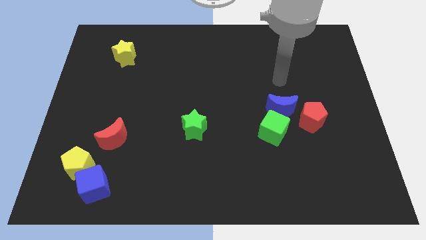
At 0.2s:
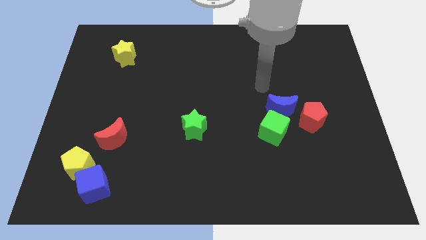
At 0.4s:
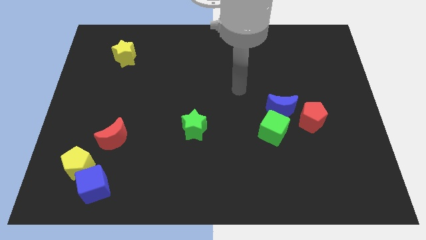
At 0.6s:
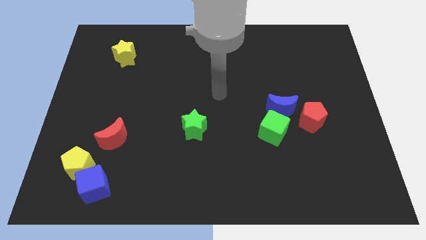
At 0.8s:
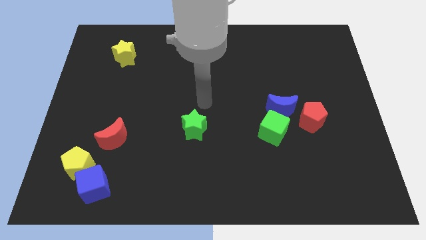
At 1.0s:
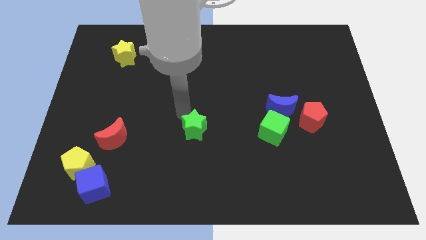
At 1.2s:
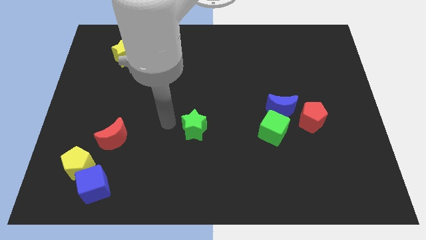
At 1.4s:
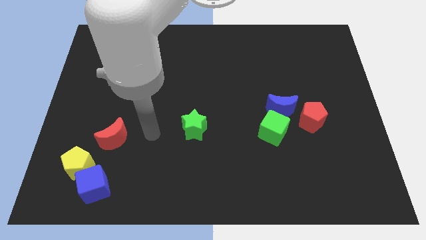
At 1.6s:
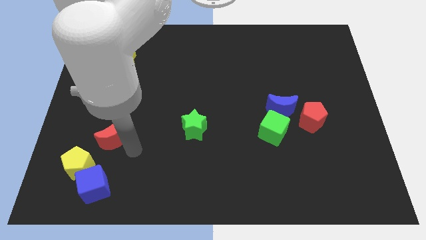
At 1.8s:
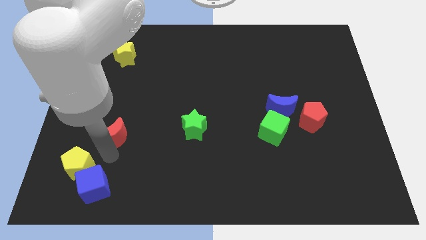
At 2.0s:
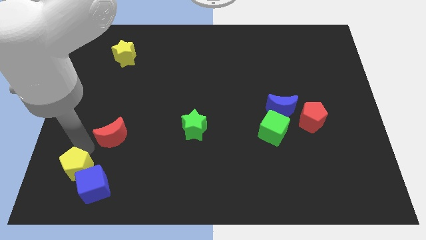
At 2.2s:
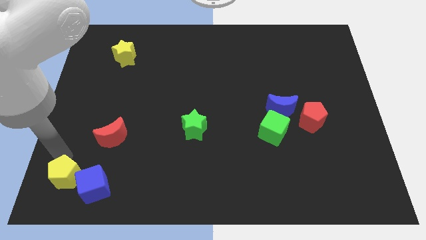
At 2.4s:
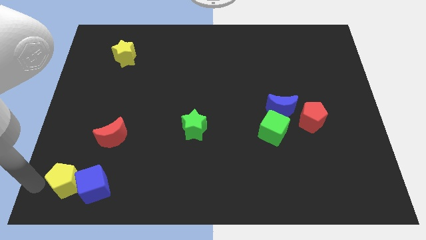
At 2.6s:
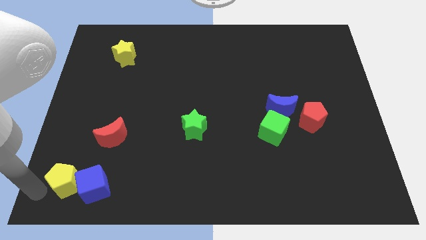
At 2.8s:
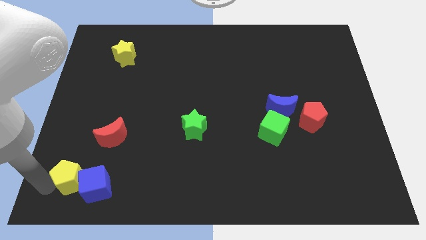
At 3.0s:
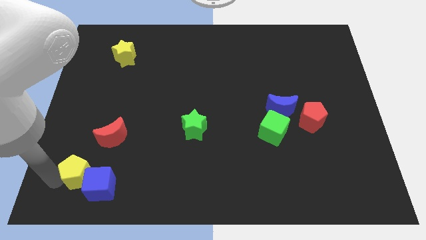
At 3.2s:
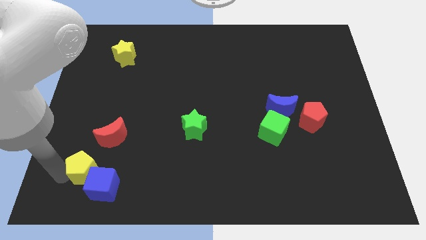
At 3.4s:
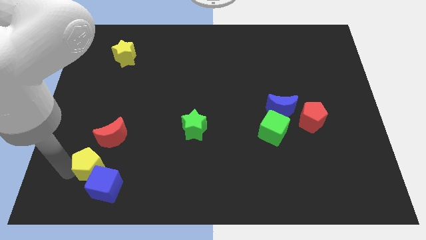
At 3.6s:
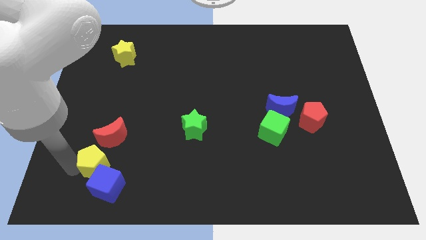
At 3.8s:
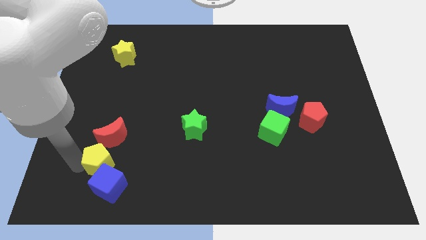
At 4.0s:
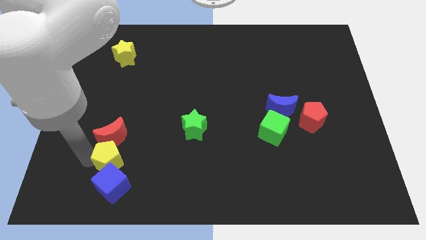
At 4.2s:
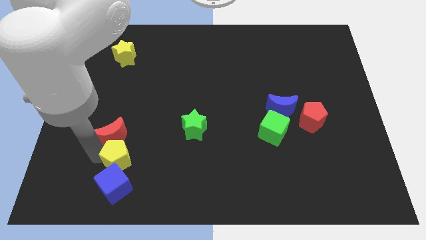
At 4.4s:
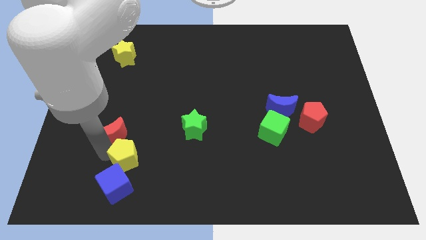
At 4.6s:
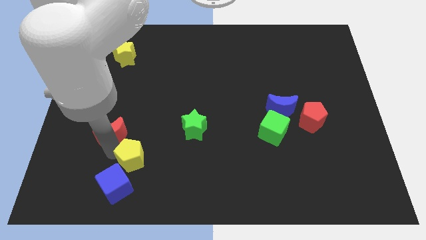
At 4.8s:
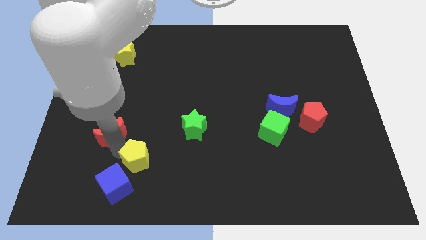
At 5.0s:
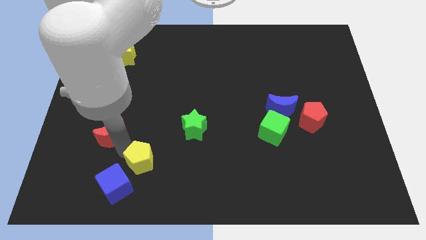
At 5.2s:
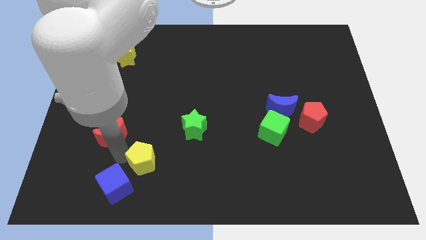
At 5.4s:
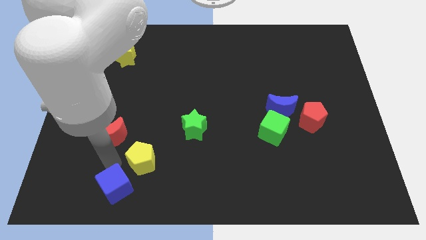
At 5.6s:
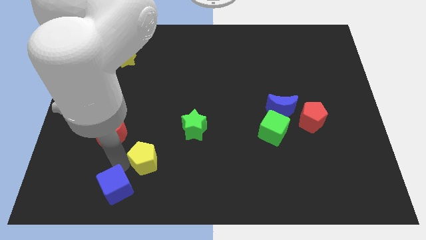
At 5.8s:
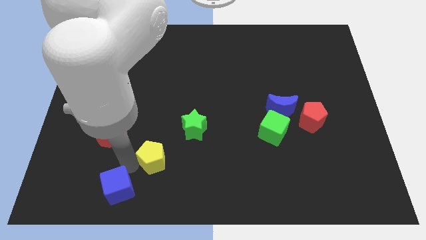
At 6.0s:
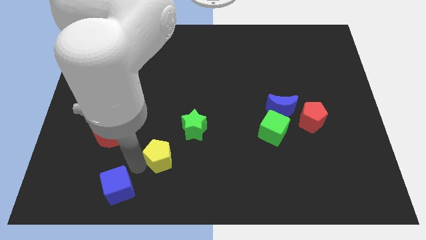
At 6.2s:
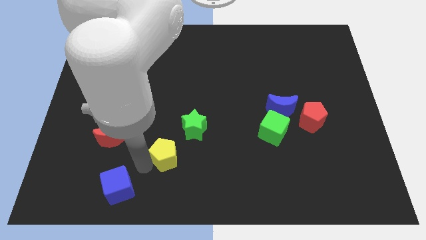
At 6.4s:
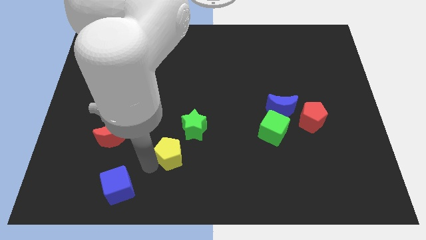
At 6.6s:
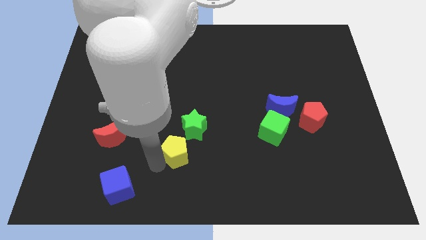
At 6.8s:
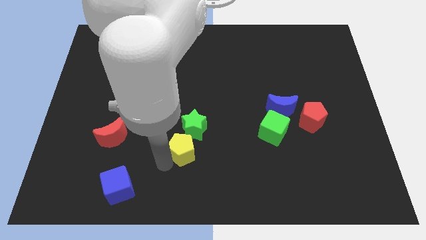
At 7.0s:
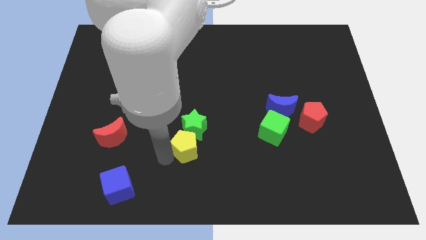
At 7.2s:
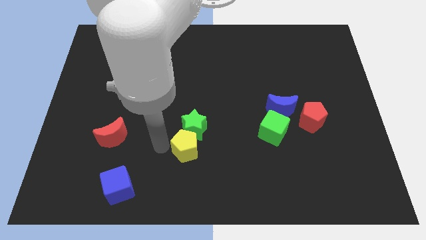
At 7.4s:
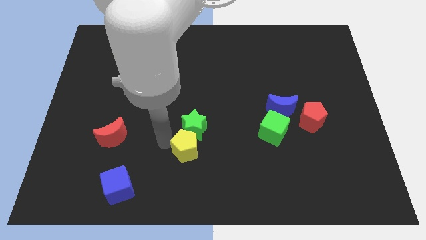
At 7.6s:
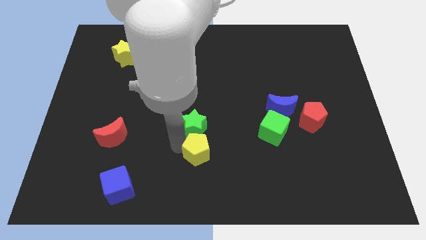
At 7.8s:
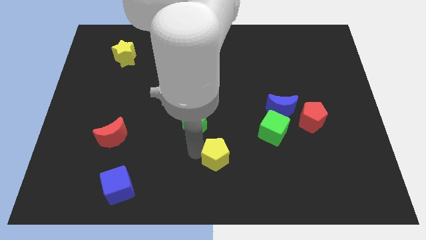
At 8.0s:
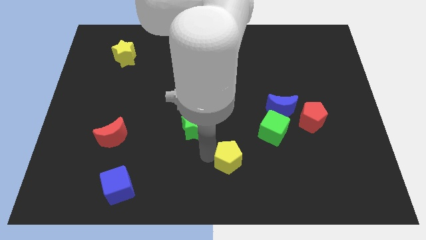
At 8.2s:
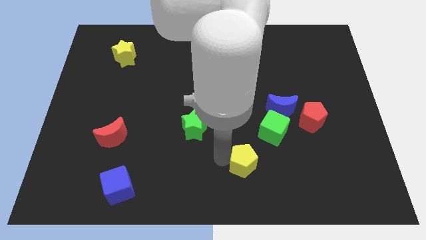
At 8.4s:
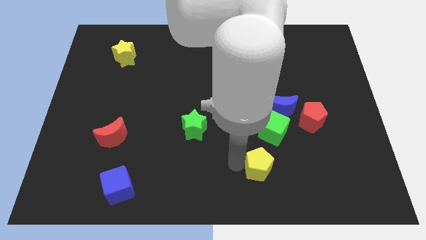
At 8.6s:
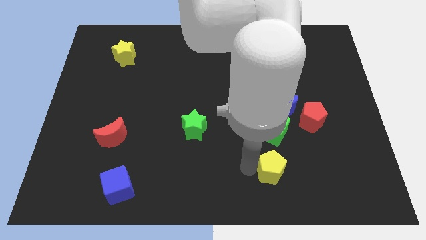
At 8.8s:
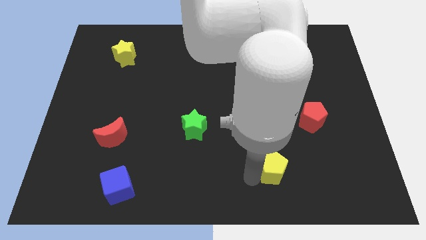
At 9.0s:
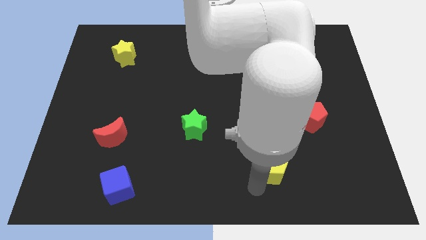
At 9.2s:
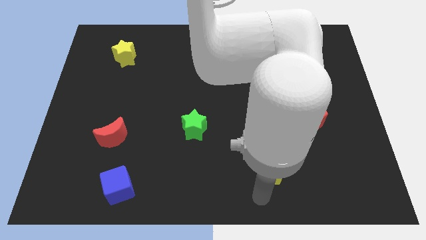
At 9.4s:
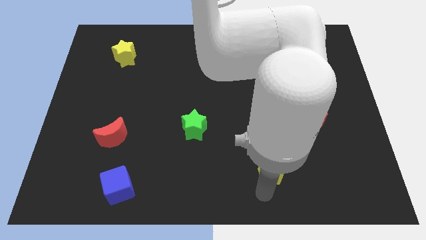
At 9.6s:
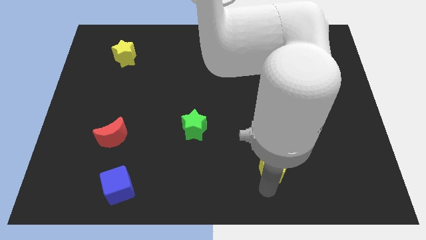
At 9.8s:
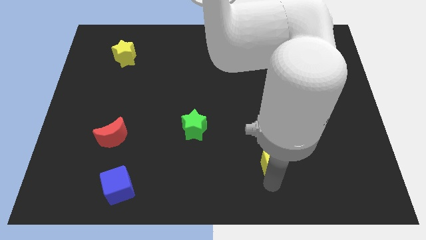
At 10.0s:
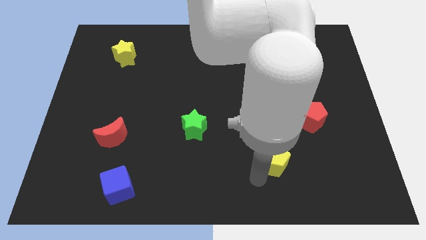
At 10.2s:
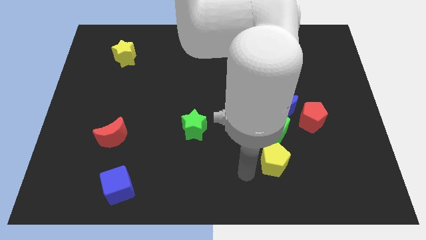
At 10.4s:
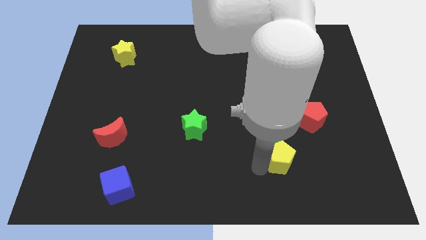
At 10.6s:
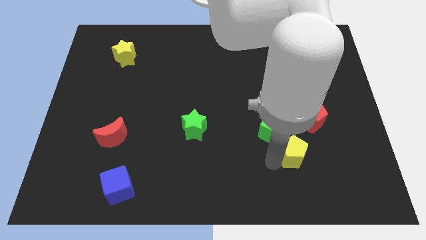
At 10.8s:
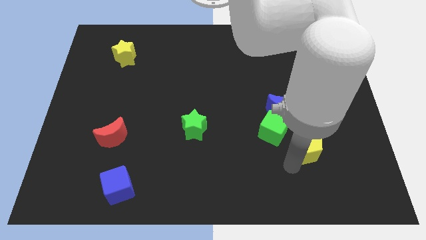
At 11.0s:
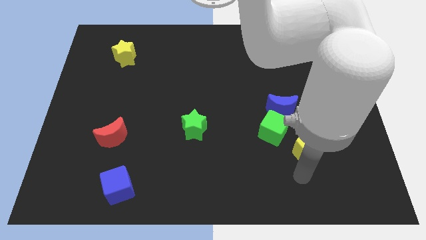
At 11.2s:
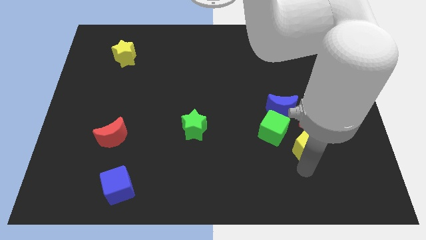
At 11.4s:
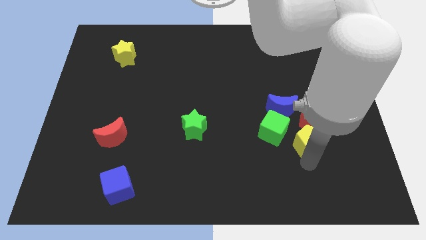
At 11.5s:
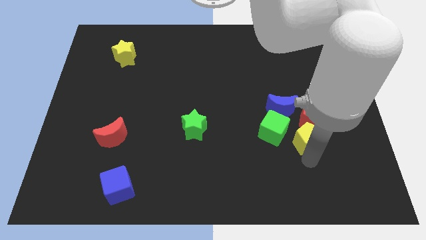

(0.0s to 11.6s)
push the yellow pentagon close to the red pentagon

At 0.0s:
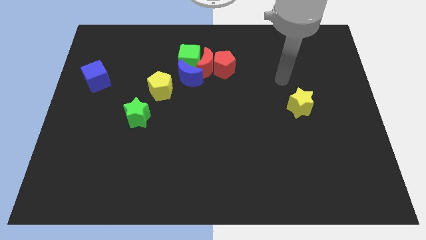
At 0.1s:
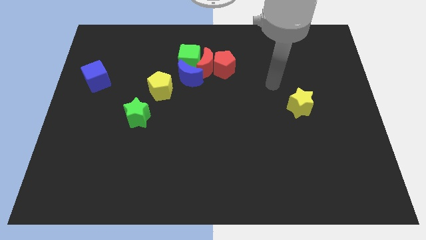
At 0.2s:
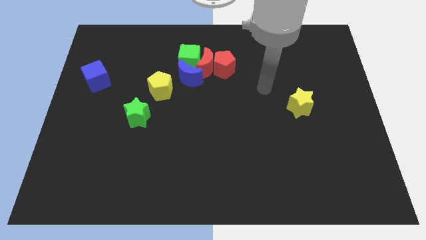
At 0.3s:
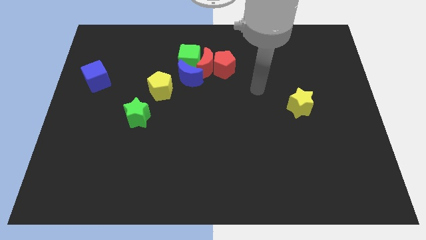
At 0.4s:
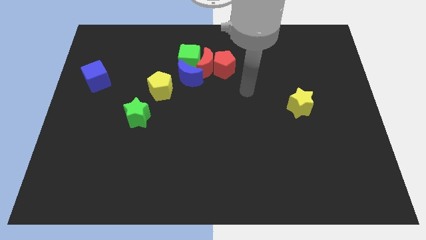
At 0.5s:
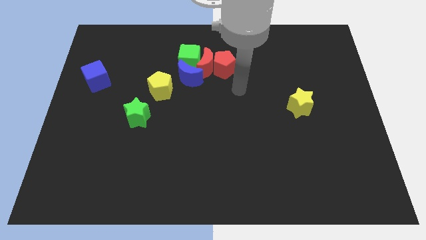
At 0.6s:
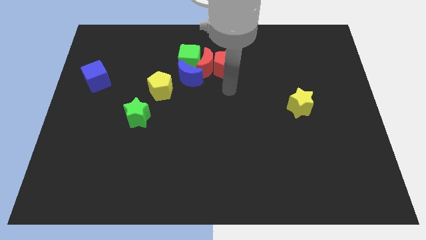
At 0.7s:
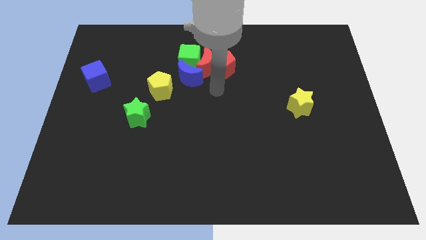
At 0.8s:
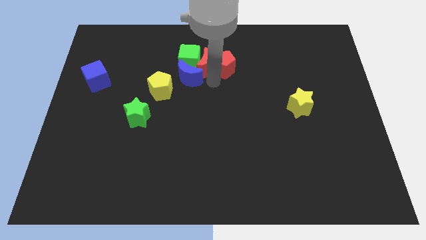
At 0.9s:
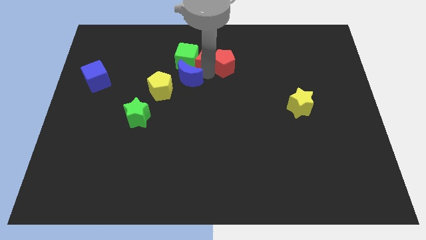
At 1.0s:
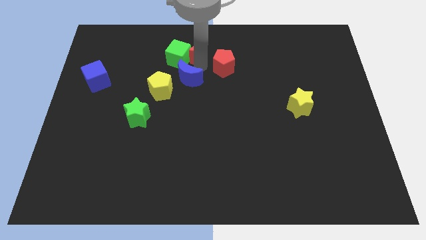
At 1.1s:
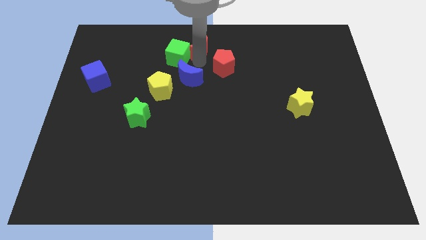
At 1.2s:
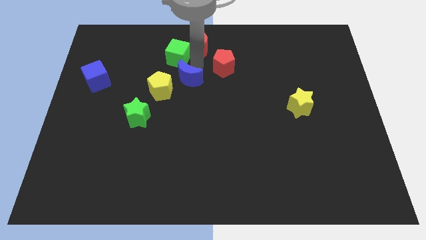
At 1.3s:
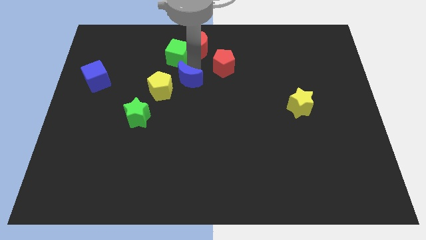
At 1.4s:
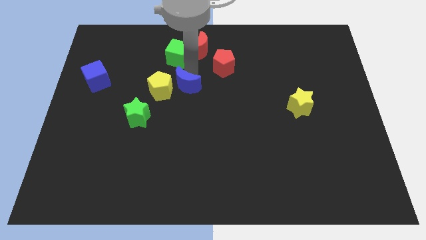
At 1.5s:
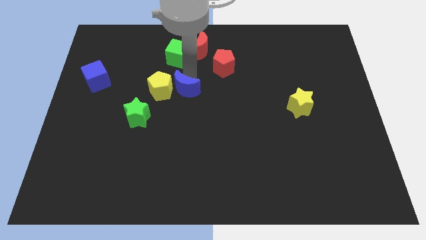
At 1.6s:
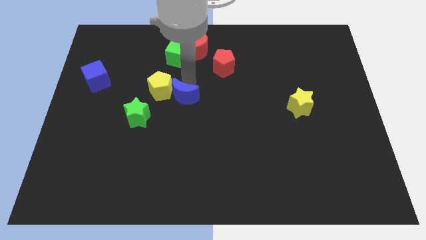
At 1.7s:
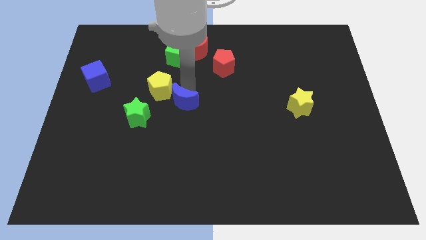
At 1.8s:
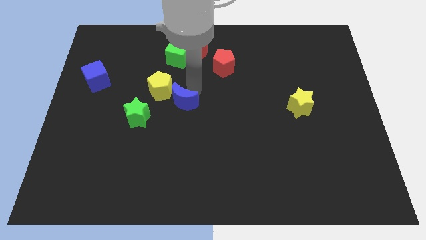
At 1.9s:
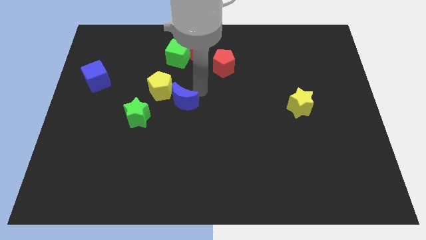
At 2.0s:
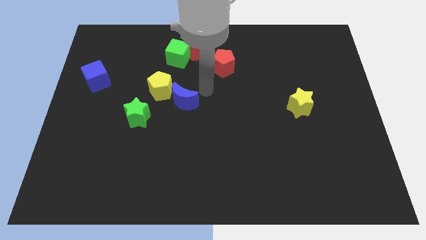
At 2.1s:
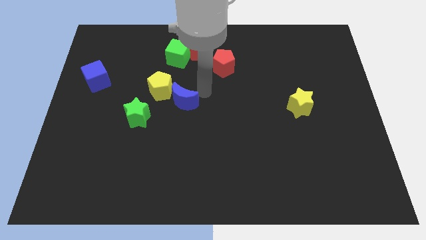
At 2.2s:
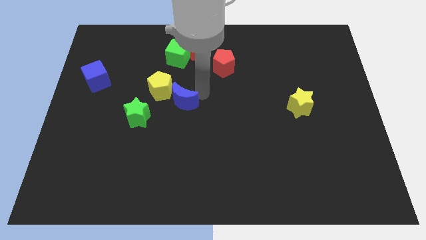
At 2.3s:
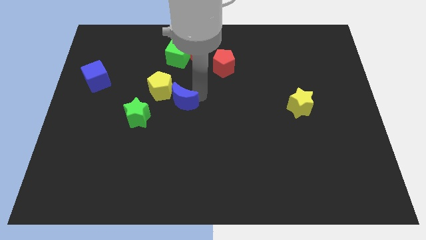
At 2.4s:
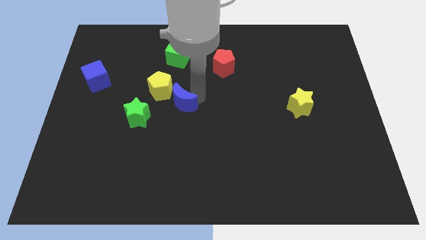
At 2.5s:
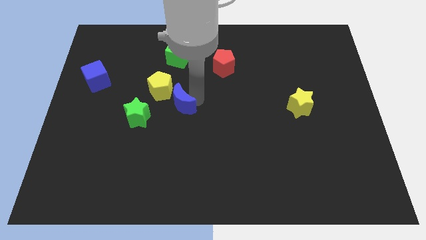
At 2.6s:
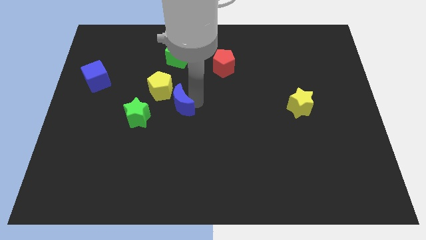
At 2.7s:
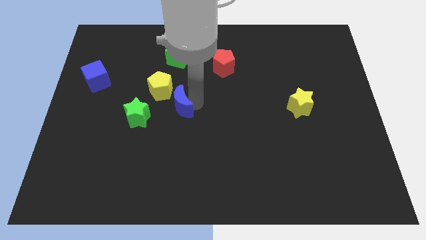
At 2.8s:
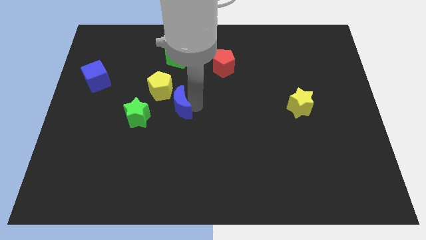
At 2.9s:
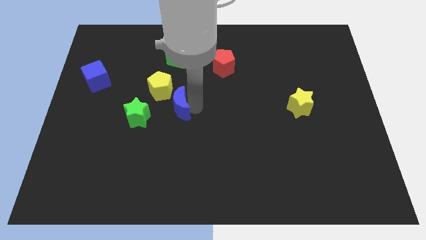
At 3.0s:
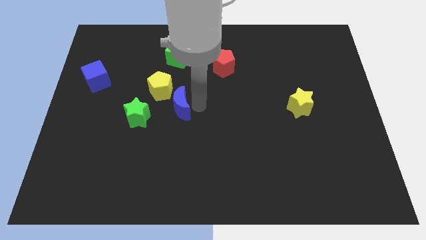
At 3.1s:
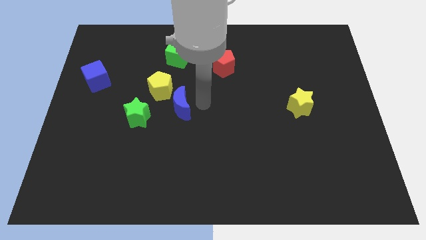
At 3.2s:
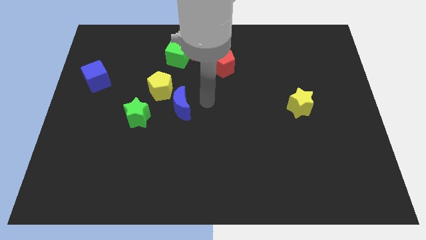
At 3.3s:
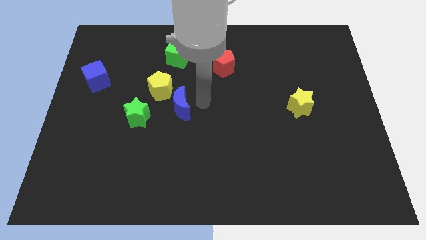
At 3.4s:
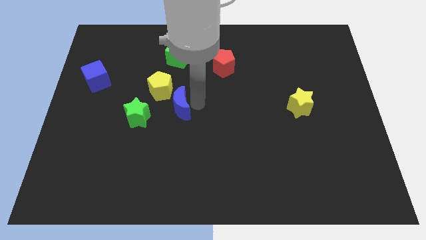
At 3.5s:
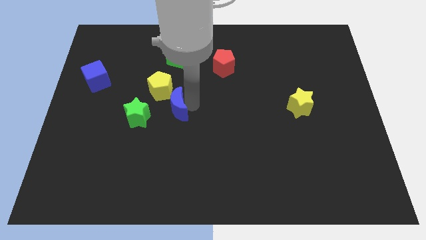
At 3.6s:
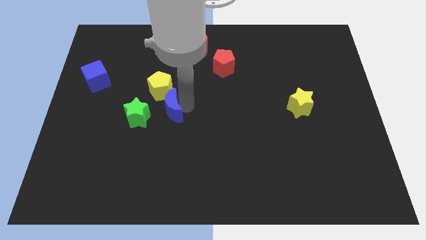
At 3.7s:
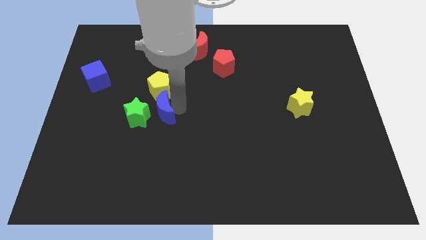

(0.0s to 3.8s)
move the blue moon close to the green star
